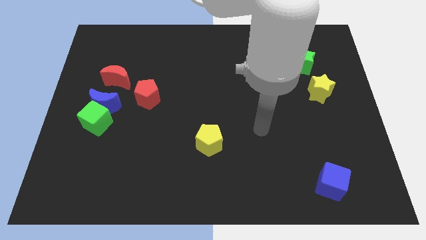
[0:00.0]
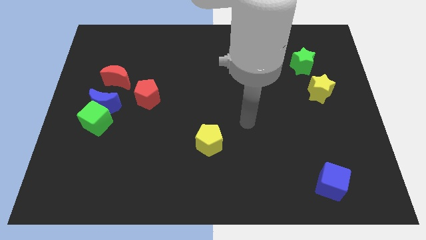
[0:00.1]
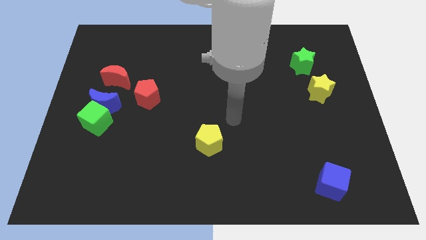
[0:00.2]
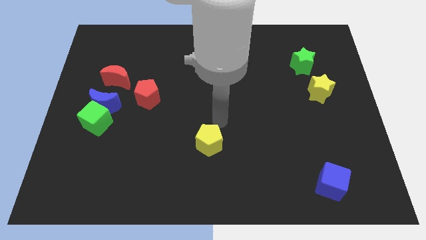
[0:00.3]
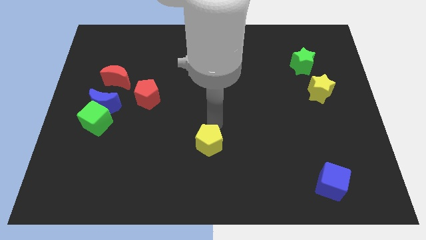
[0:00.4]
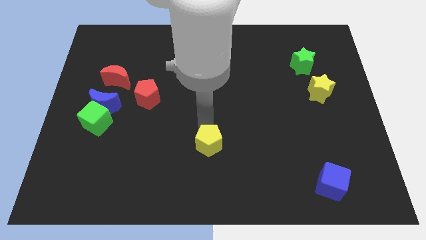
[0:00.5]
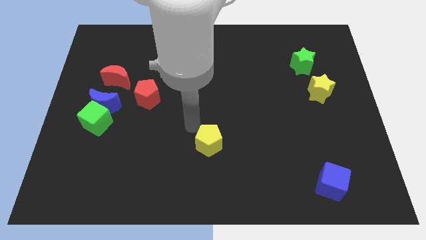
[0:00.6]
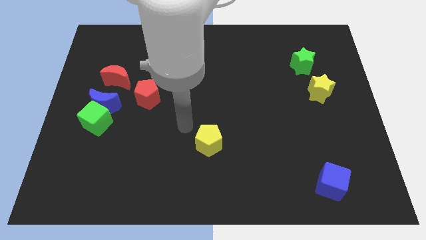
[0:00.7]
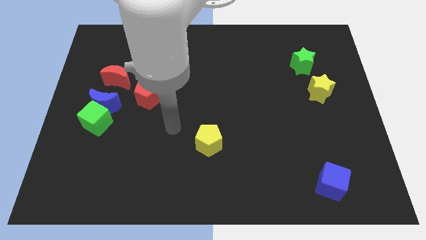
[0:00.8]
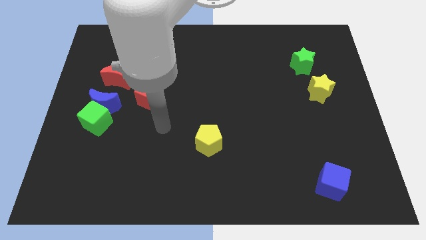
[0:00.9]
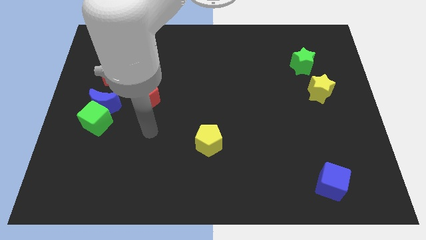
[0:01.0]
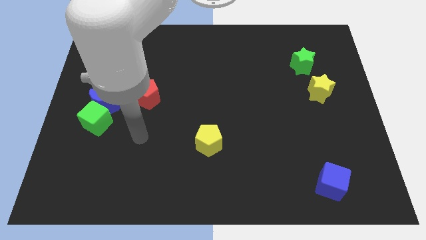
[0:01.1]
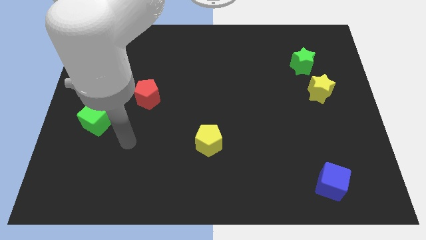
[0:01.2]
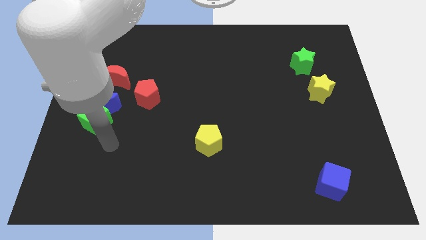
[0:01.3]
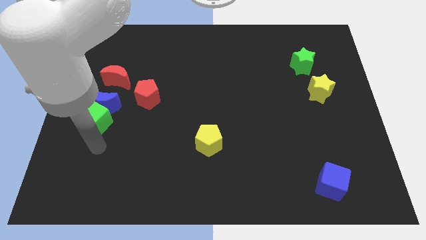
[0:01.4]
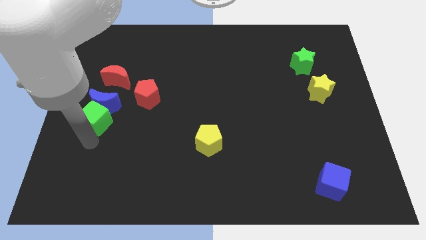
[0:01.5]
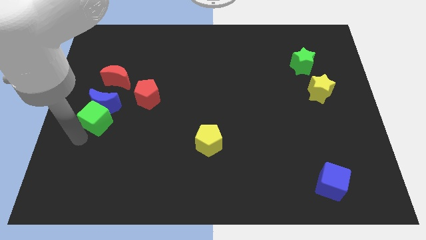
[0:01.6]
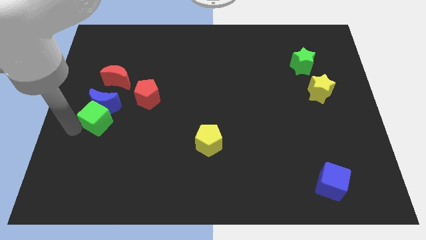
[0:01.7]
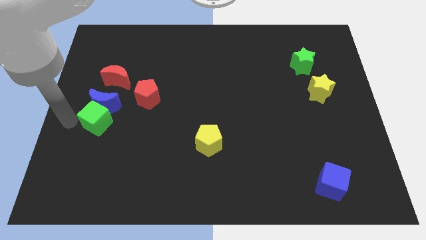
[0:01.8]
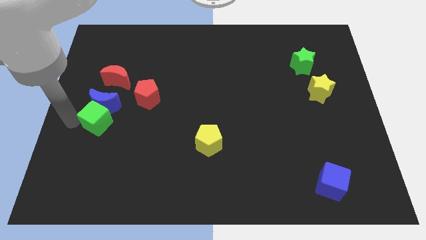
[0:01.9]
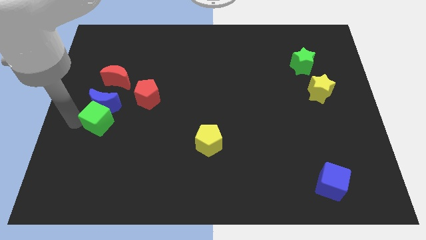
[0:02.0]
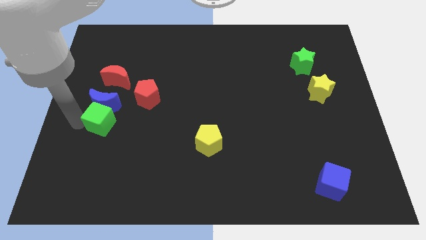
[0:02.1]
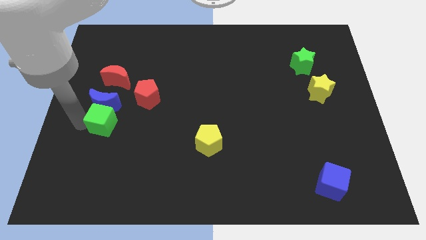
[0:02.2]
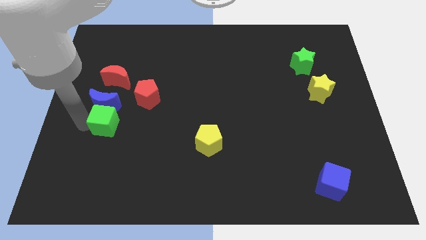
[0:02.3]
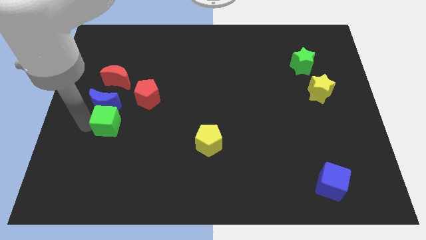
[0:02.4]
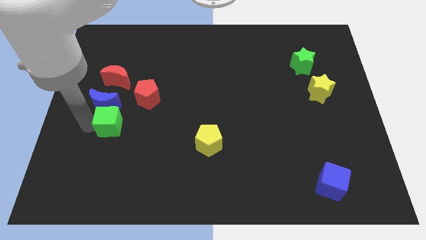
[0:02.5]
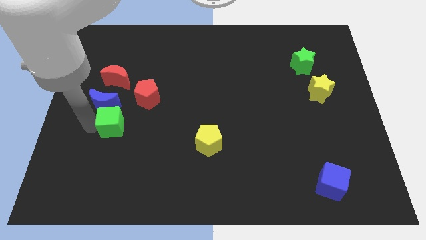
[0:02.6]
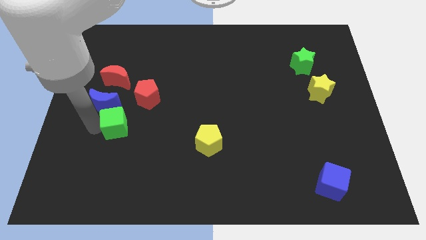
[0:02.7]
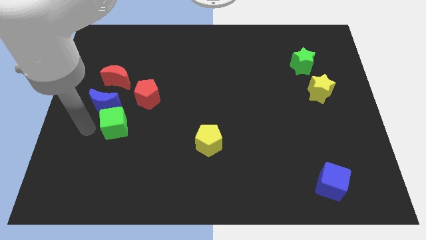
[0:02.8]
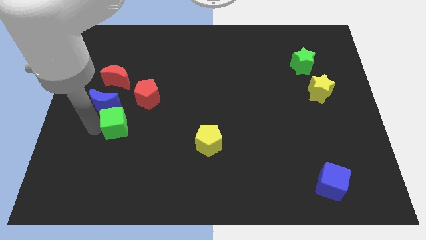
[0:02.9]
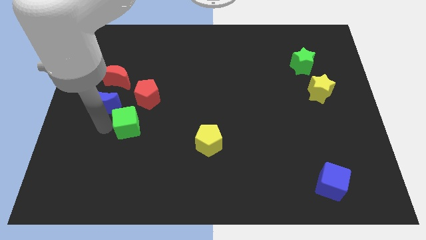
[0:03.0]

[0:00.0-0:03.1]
slightly push the green cube to the right

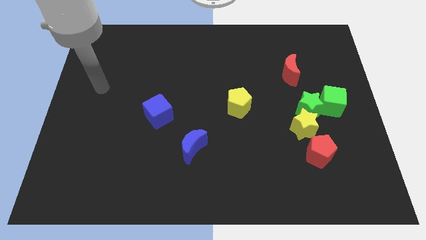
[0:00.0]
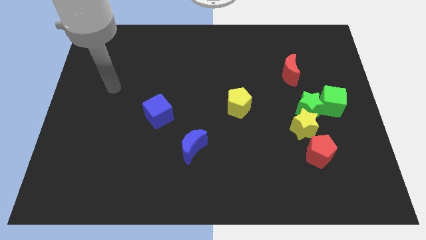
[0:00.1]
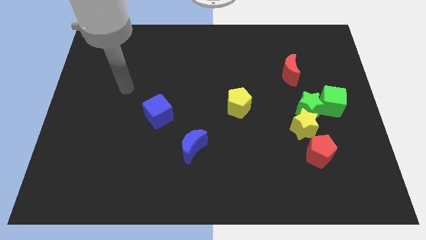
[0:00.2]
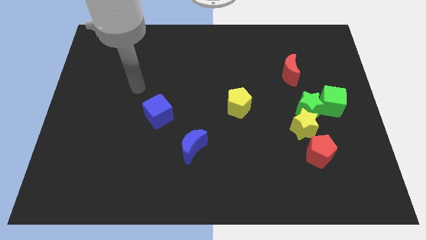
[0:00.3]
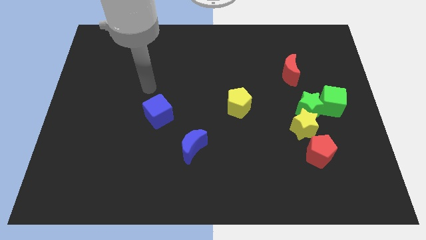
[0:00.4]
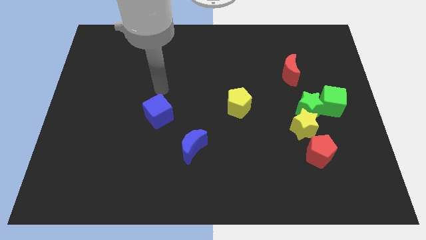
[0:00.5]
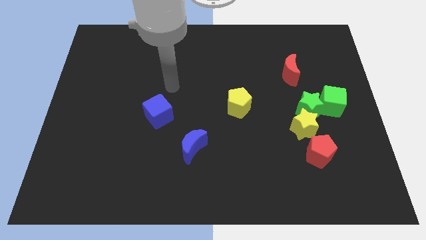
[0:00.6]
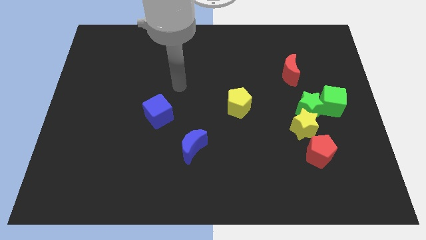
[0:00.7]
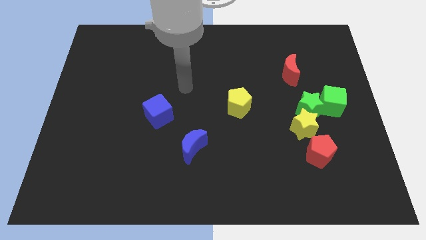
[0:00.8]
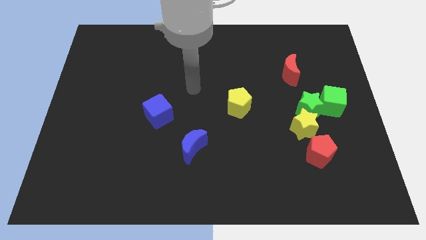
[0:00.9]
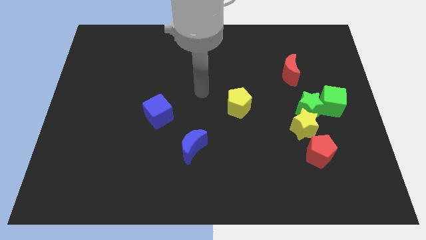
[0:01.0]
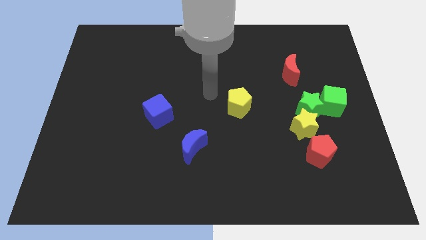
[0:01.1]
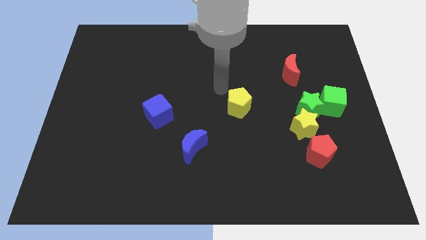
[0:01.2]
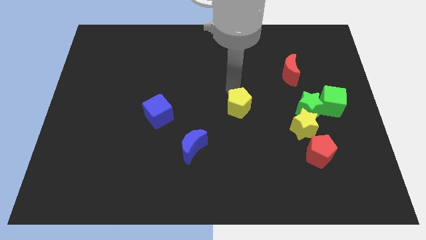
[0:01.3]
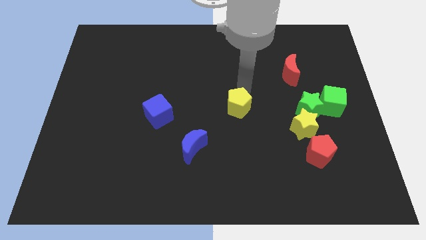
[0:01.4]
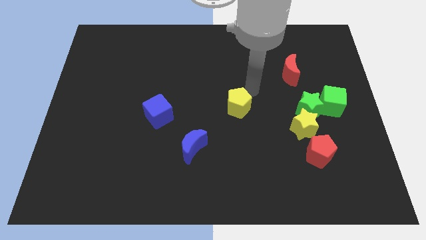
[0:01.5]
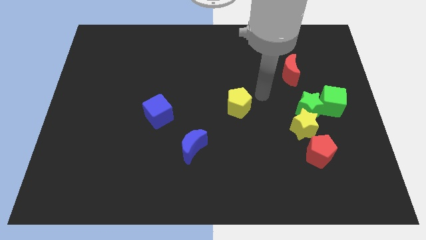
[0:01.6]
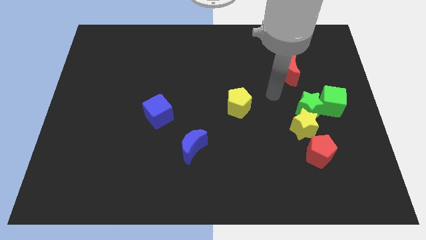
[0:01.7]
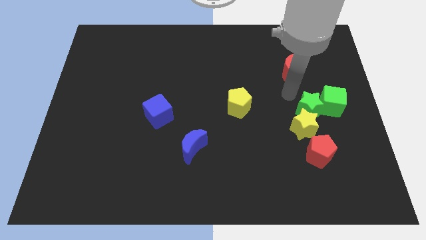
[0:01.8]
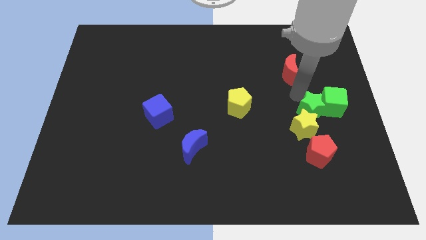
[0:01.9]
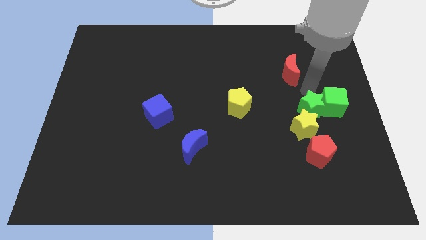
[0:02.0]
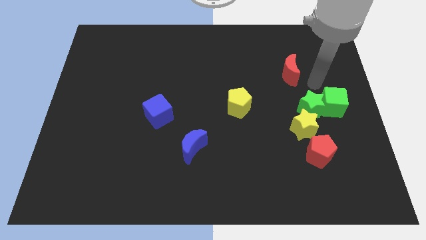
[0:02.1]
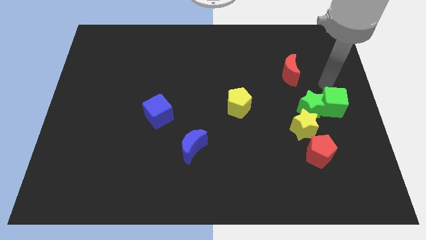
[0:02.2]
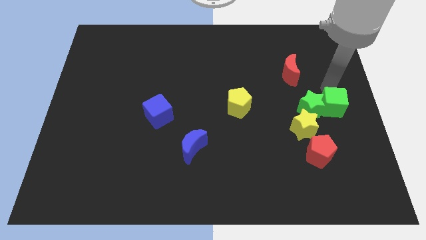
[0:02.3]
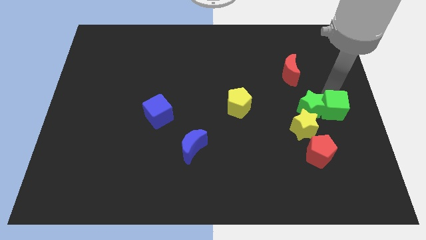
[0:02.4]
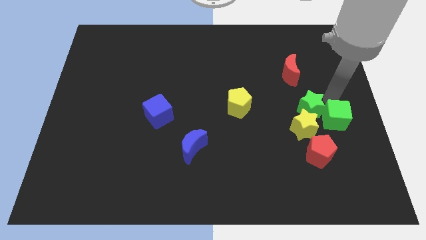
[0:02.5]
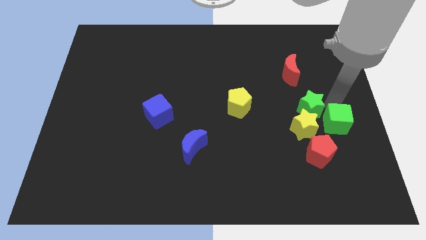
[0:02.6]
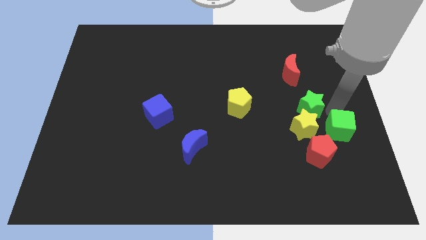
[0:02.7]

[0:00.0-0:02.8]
slide the green cube a bit down

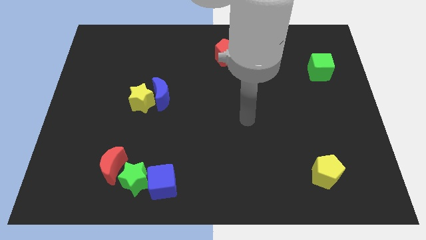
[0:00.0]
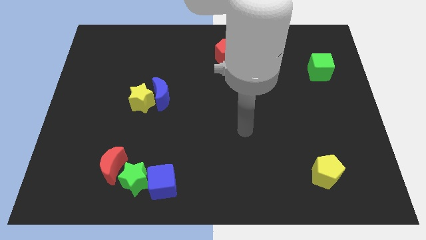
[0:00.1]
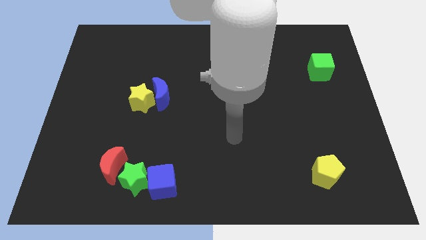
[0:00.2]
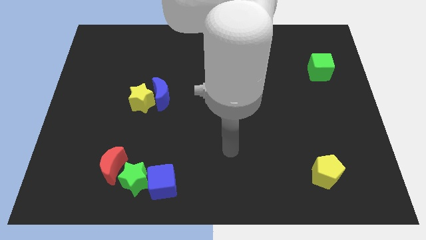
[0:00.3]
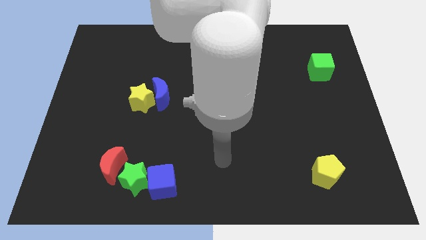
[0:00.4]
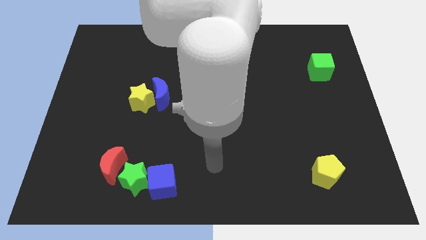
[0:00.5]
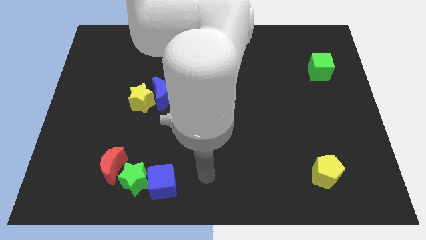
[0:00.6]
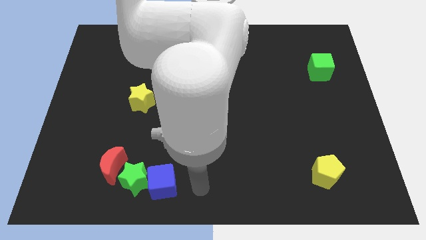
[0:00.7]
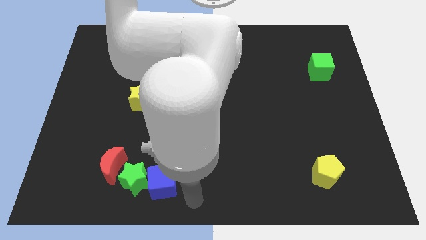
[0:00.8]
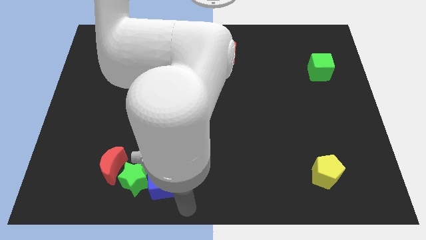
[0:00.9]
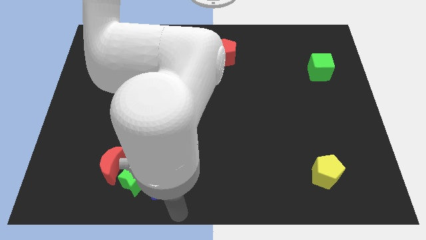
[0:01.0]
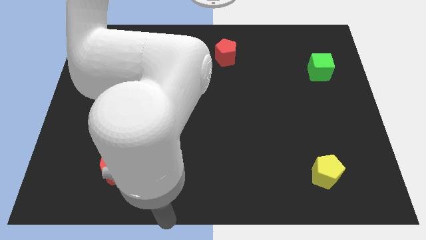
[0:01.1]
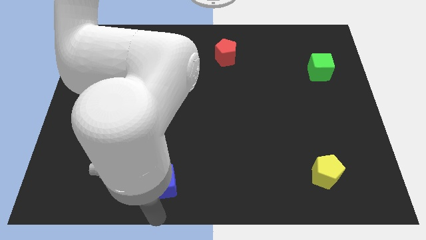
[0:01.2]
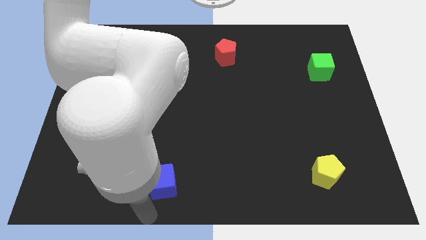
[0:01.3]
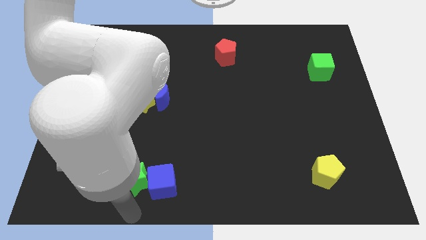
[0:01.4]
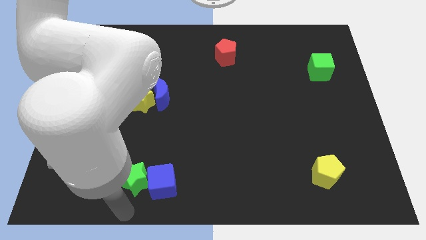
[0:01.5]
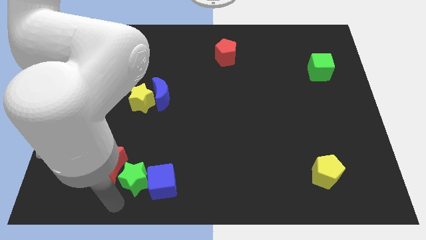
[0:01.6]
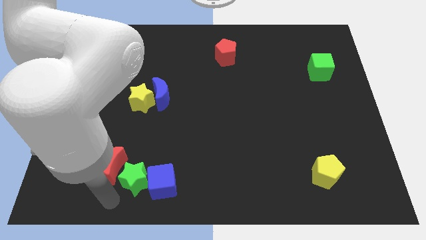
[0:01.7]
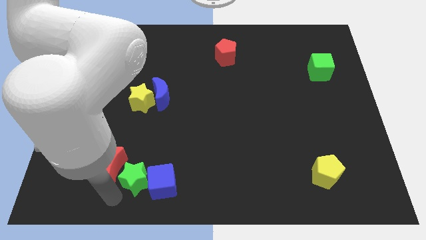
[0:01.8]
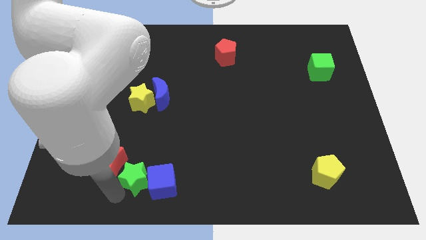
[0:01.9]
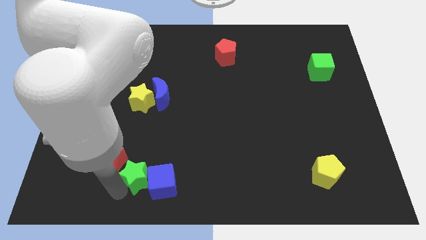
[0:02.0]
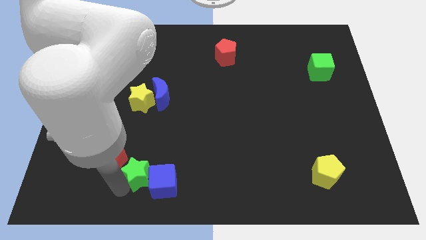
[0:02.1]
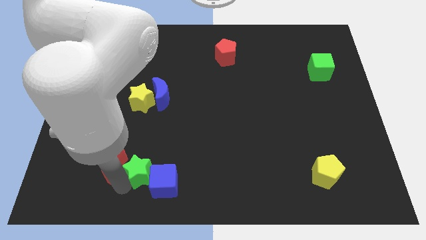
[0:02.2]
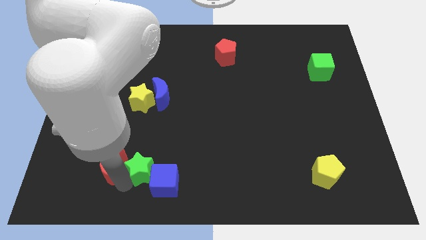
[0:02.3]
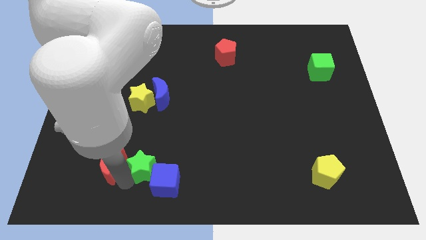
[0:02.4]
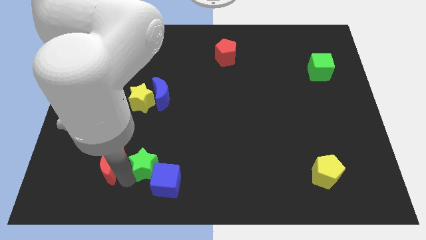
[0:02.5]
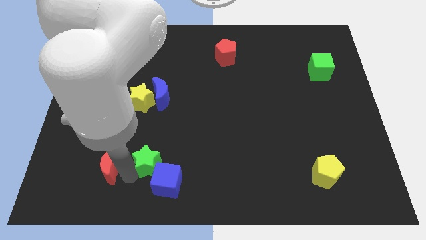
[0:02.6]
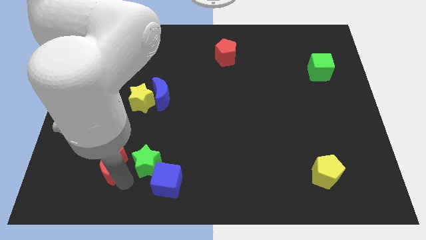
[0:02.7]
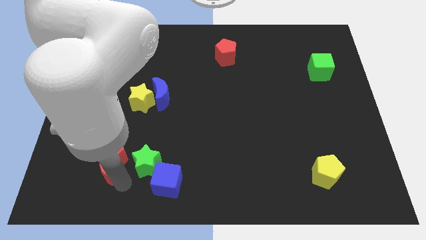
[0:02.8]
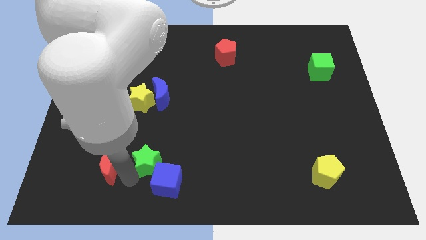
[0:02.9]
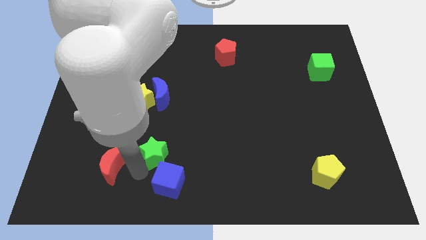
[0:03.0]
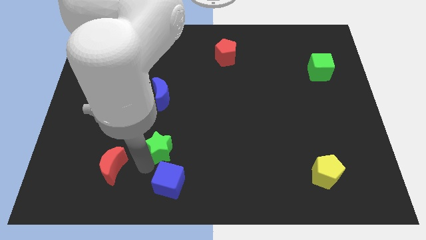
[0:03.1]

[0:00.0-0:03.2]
push the green star a little bit diagonally upwards and to the right
